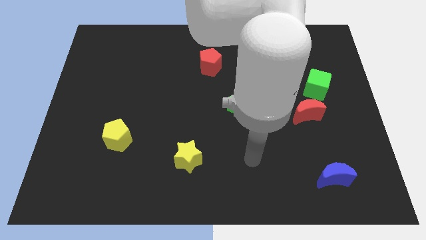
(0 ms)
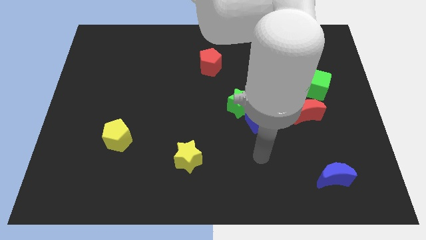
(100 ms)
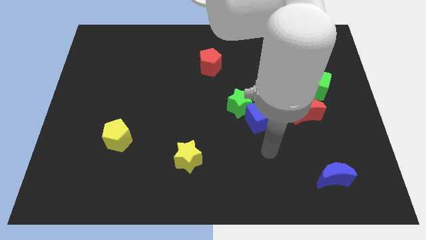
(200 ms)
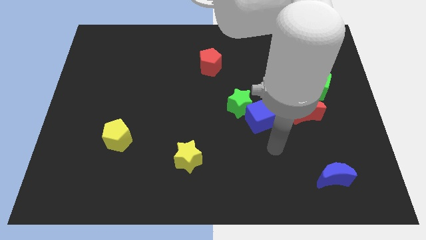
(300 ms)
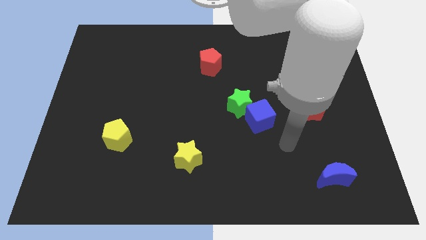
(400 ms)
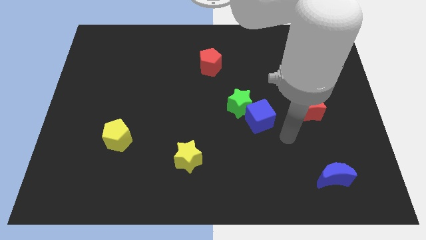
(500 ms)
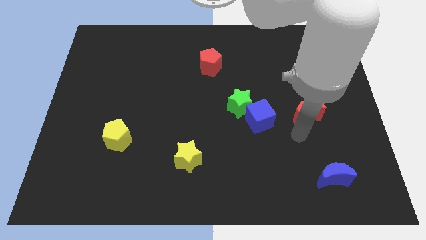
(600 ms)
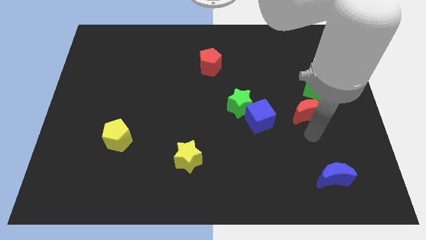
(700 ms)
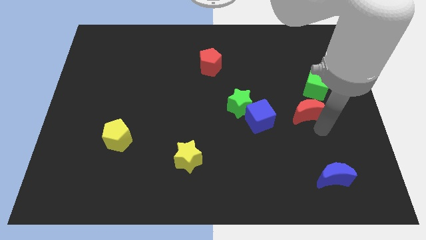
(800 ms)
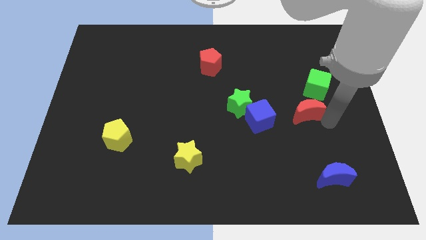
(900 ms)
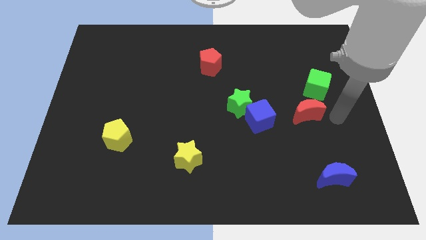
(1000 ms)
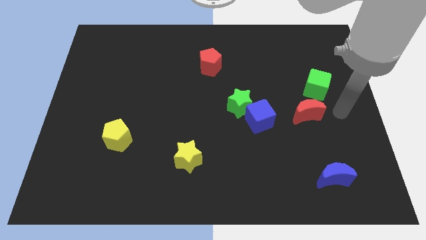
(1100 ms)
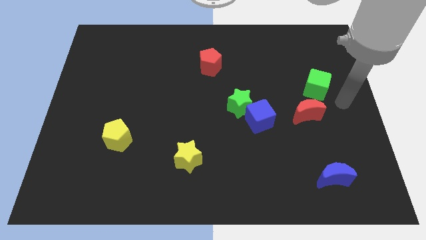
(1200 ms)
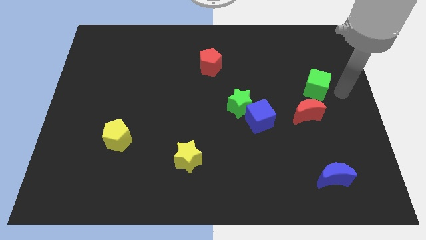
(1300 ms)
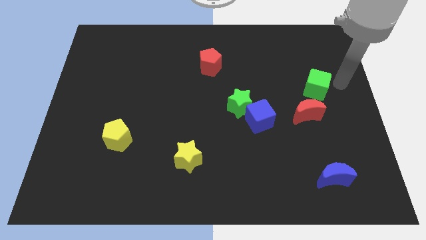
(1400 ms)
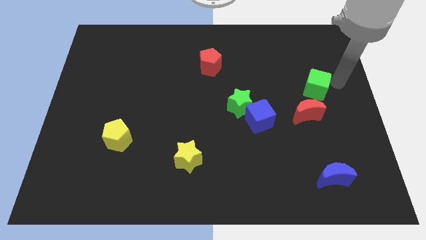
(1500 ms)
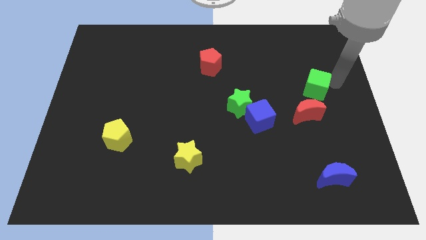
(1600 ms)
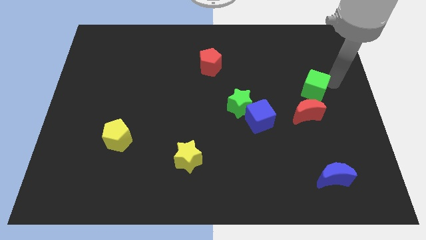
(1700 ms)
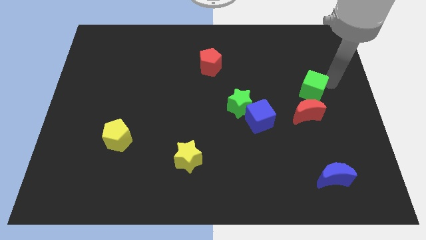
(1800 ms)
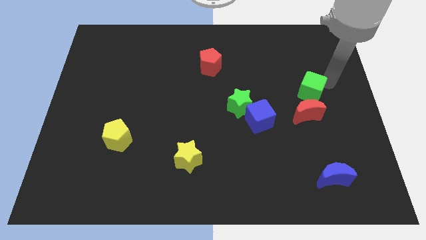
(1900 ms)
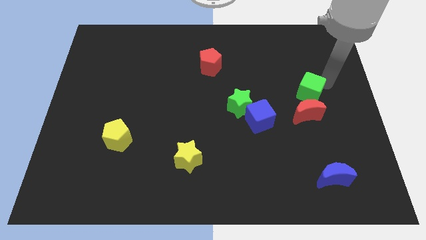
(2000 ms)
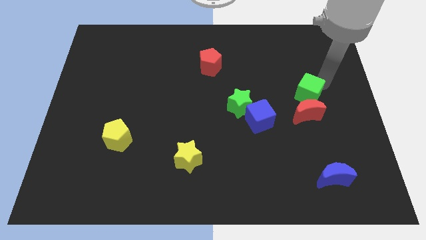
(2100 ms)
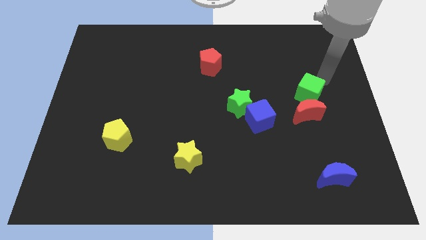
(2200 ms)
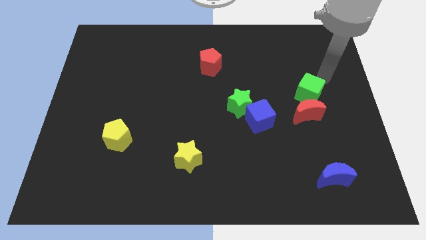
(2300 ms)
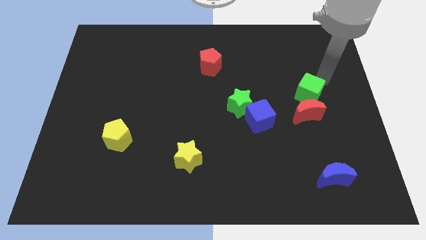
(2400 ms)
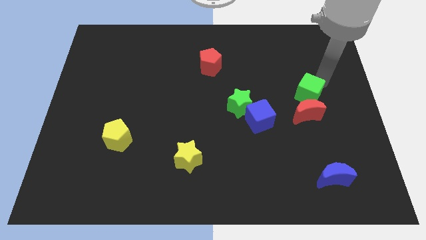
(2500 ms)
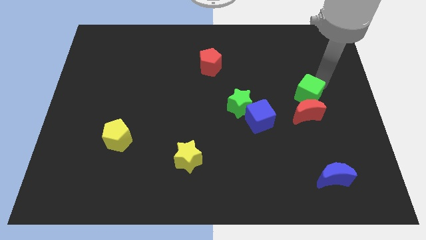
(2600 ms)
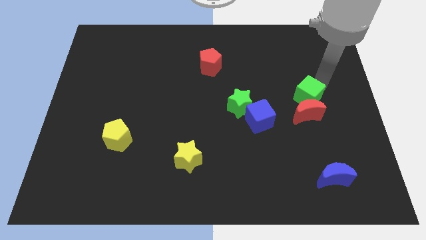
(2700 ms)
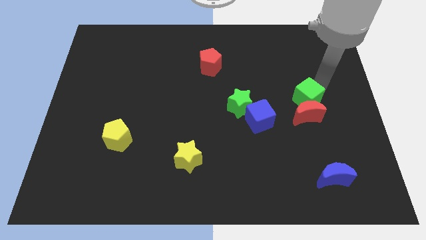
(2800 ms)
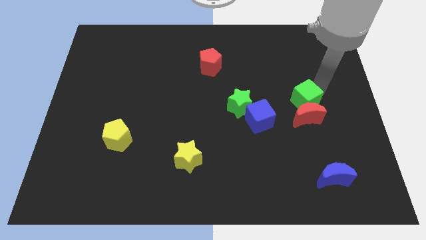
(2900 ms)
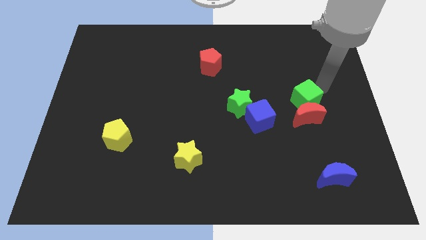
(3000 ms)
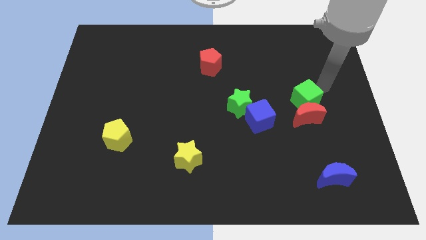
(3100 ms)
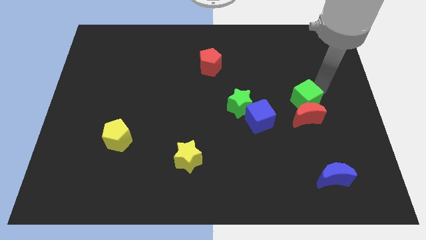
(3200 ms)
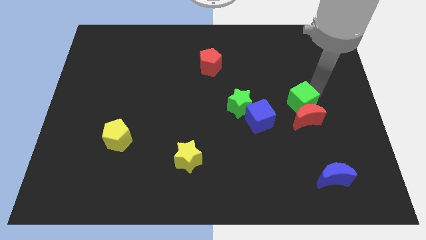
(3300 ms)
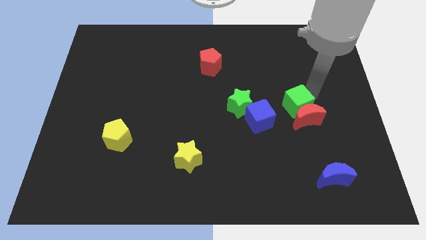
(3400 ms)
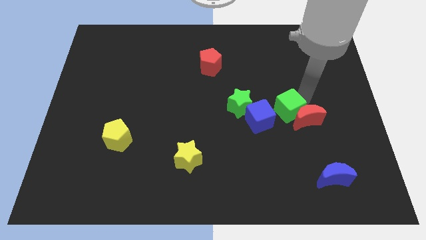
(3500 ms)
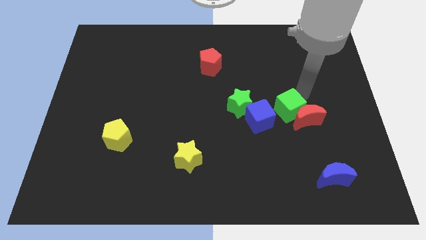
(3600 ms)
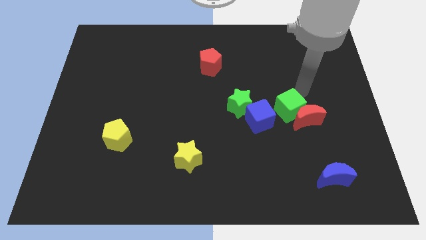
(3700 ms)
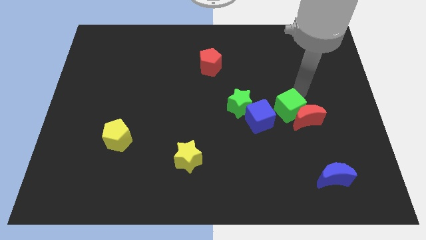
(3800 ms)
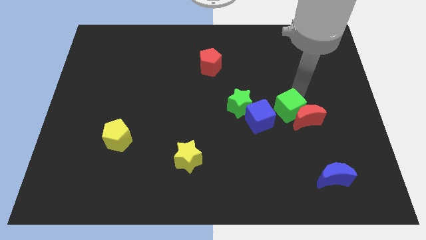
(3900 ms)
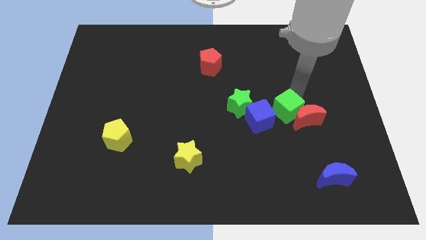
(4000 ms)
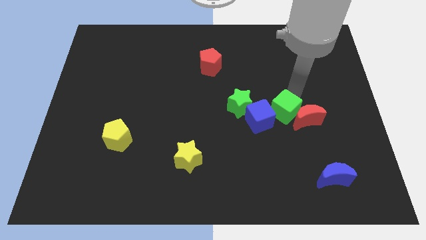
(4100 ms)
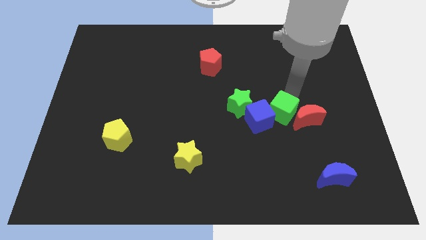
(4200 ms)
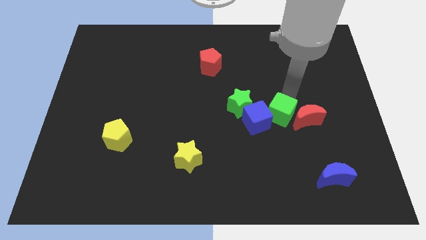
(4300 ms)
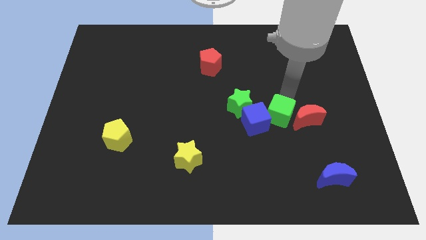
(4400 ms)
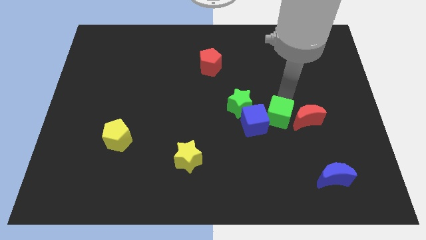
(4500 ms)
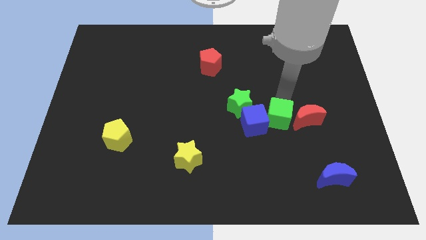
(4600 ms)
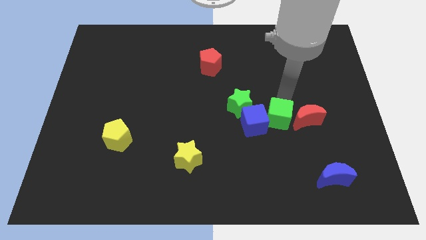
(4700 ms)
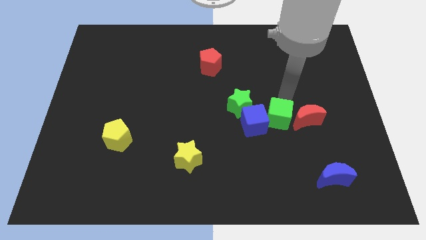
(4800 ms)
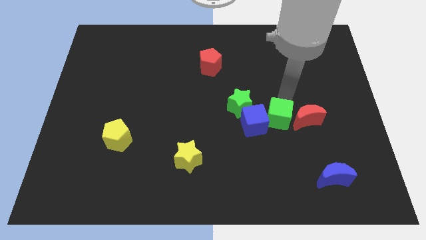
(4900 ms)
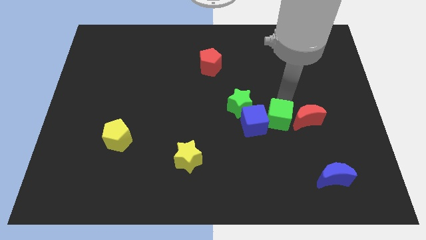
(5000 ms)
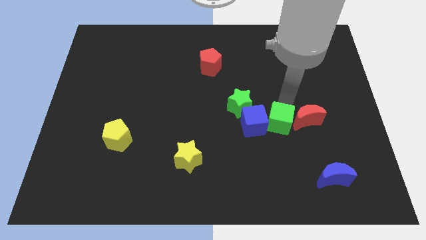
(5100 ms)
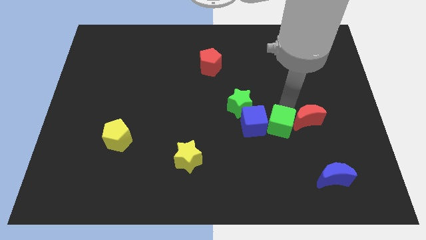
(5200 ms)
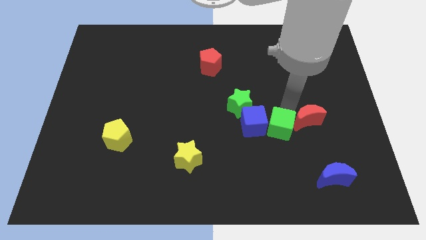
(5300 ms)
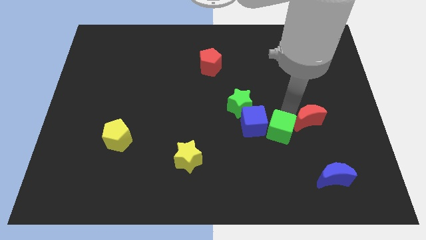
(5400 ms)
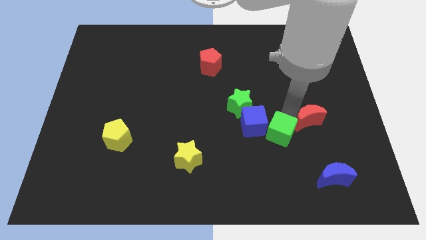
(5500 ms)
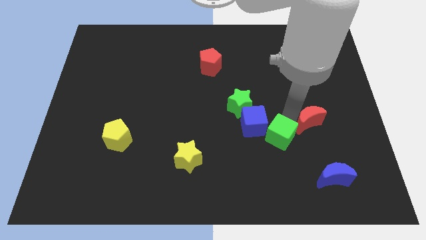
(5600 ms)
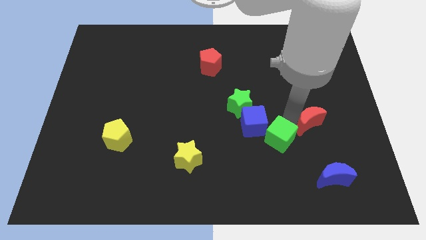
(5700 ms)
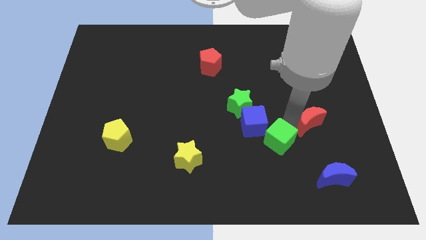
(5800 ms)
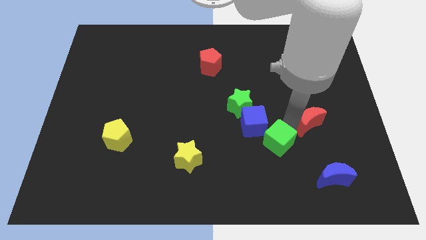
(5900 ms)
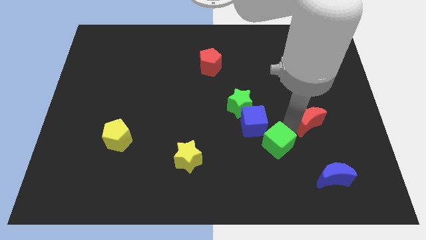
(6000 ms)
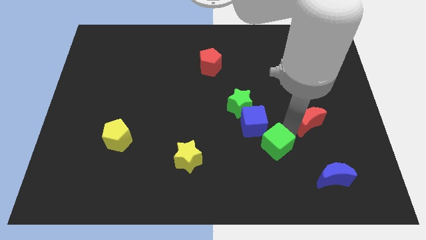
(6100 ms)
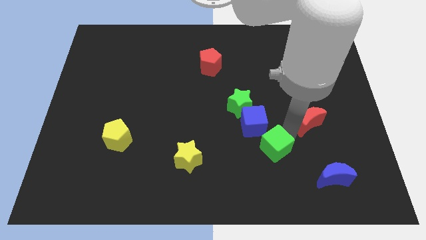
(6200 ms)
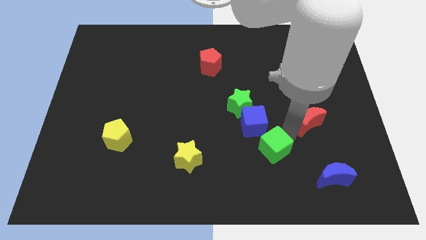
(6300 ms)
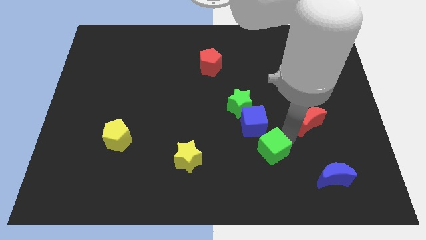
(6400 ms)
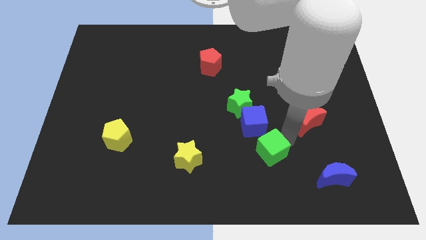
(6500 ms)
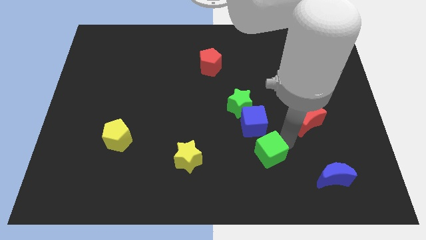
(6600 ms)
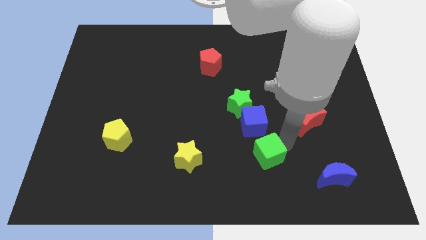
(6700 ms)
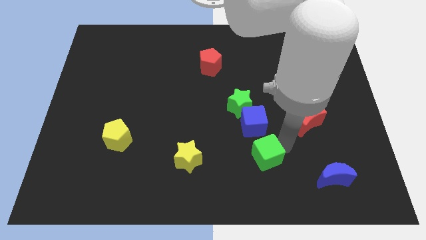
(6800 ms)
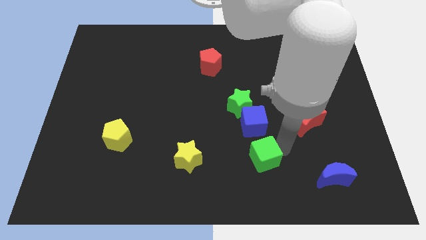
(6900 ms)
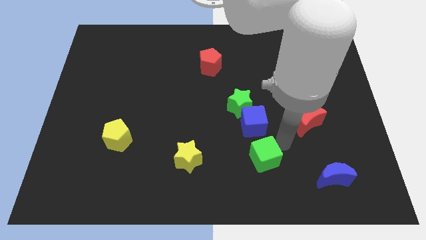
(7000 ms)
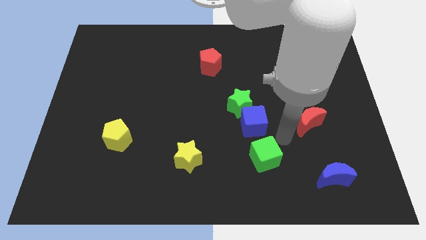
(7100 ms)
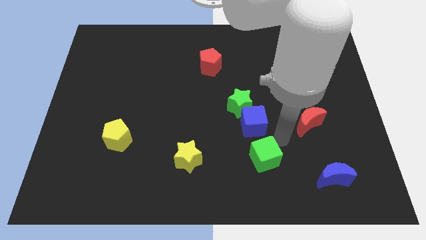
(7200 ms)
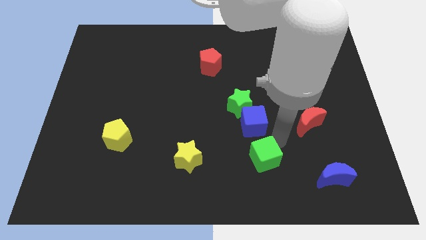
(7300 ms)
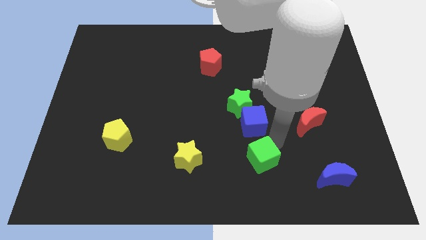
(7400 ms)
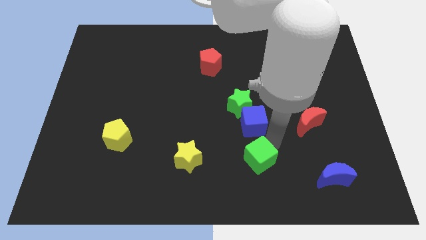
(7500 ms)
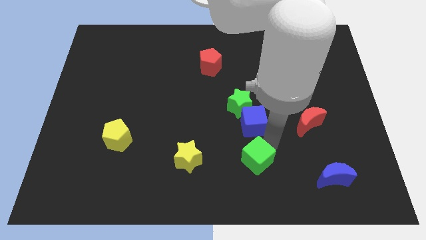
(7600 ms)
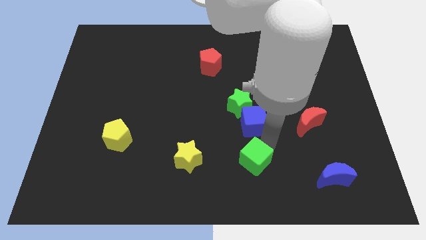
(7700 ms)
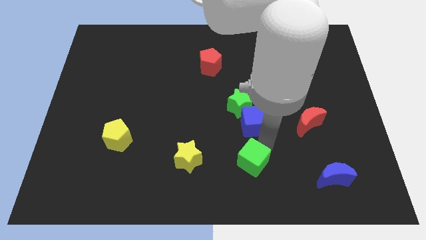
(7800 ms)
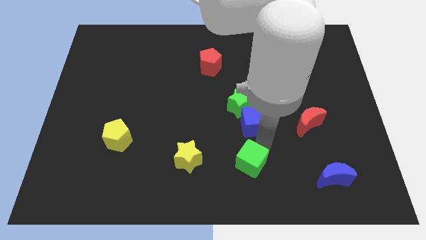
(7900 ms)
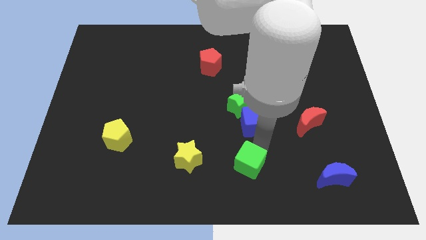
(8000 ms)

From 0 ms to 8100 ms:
put the green cube to the bottom
